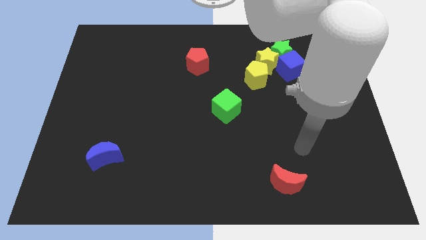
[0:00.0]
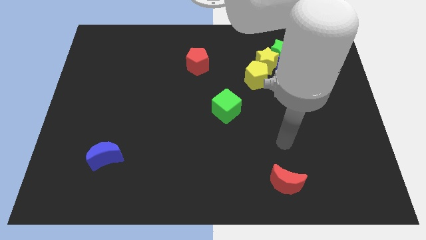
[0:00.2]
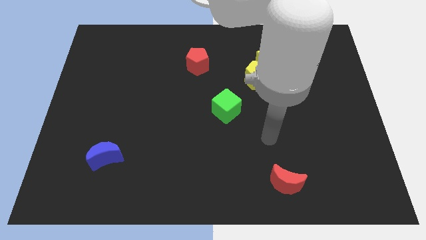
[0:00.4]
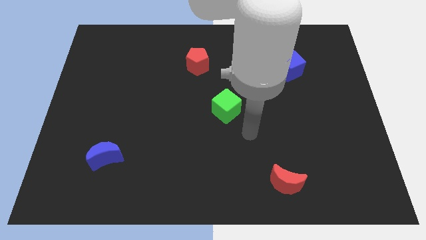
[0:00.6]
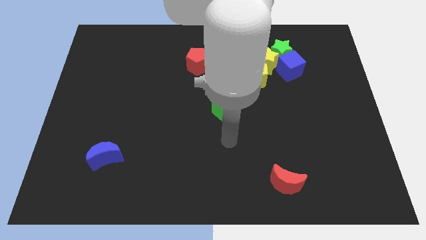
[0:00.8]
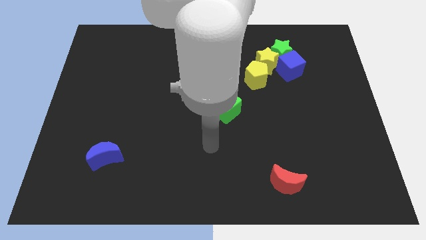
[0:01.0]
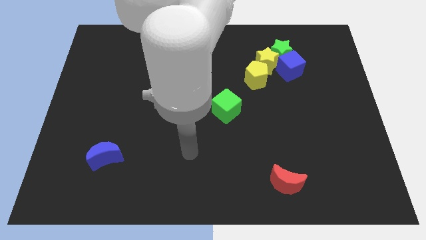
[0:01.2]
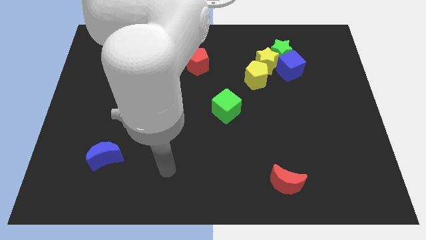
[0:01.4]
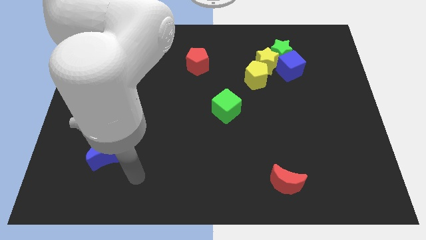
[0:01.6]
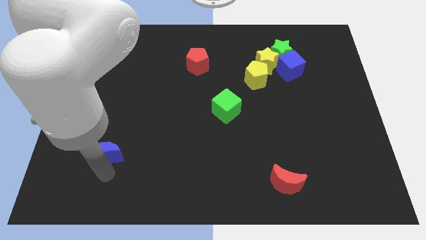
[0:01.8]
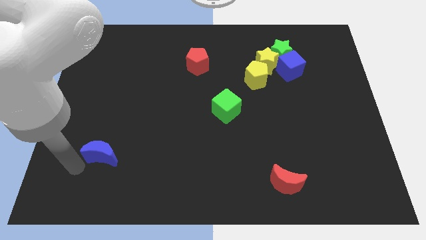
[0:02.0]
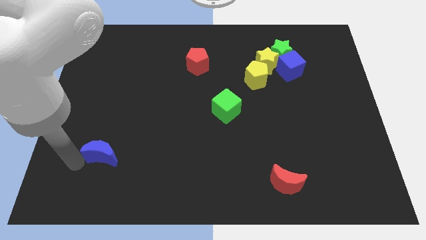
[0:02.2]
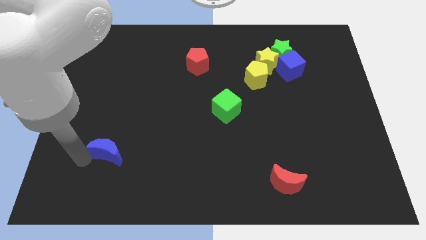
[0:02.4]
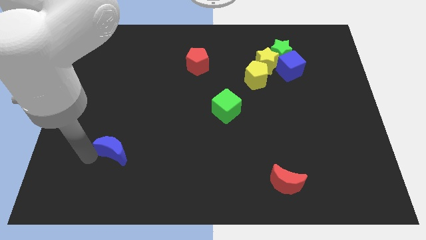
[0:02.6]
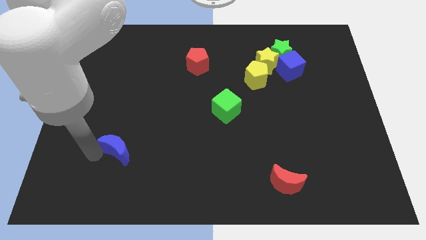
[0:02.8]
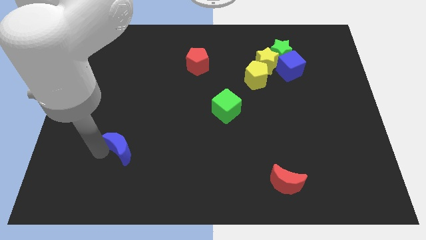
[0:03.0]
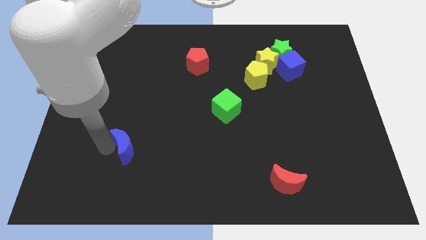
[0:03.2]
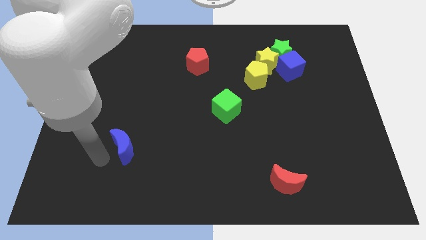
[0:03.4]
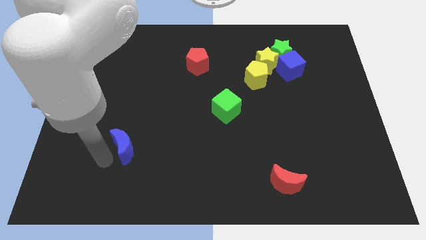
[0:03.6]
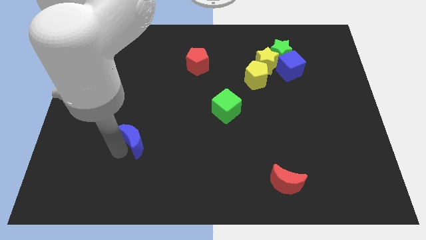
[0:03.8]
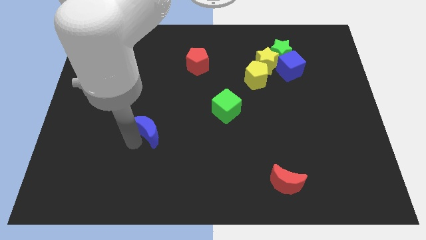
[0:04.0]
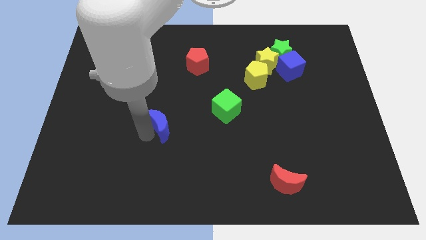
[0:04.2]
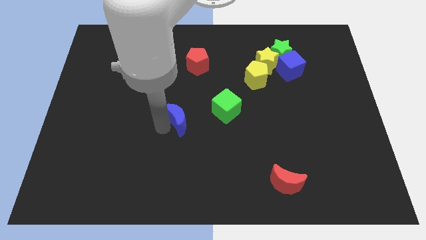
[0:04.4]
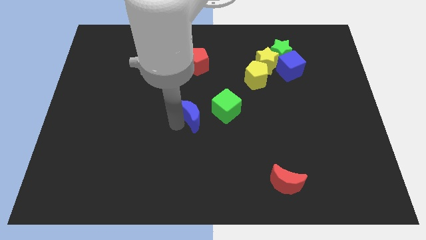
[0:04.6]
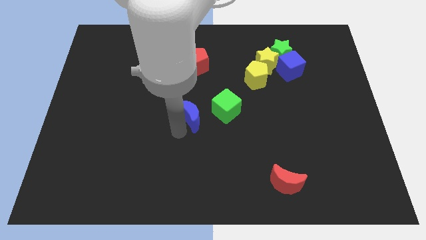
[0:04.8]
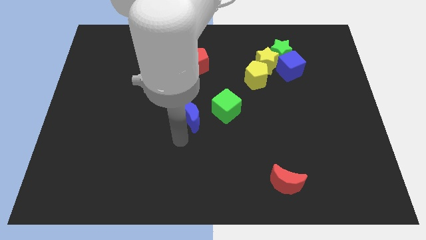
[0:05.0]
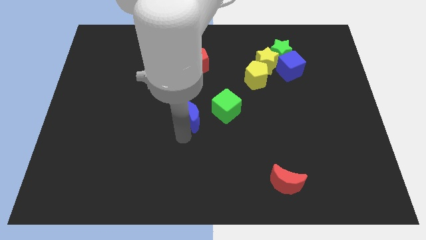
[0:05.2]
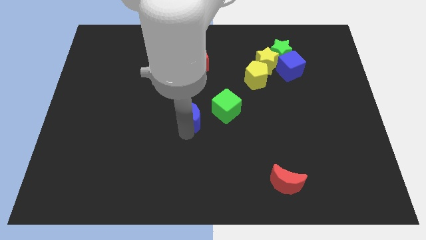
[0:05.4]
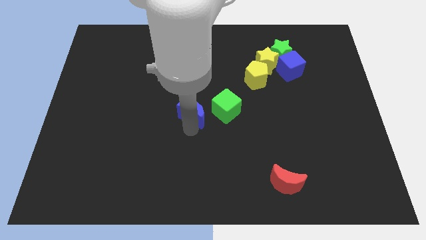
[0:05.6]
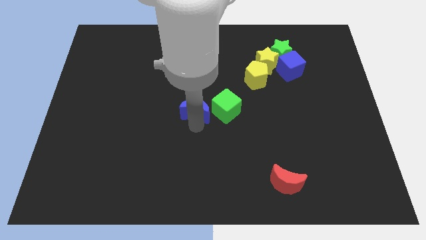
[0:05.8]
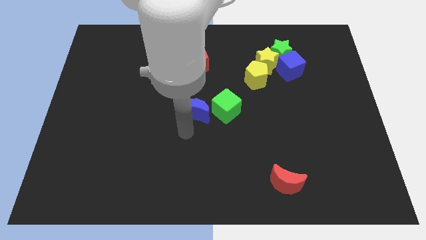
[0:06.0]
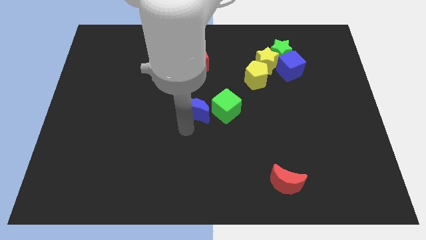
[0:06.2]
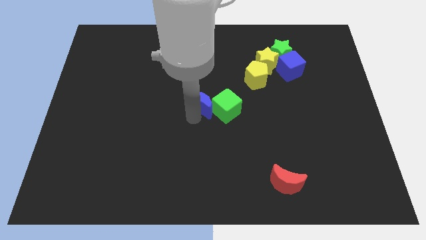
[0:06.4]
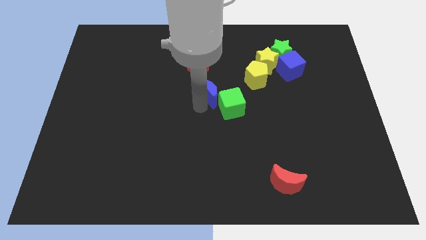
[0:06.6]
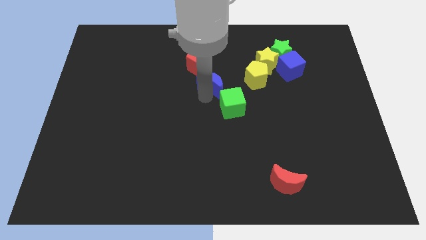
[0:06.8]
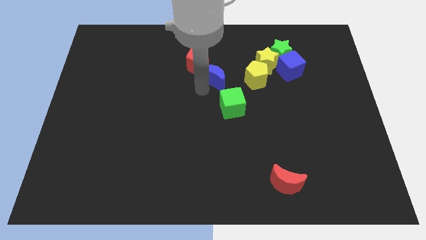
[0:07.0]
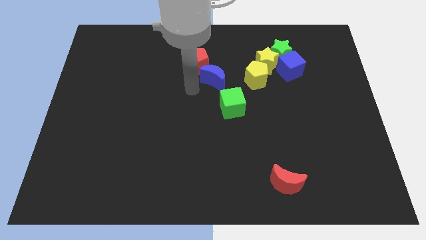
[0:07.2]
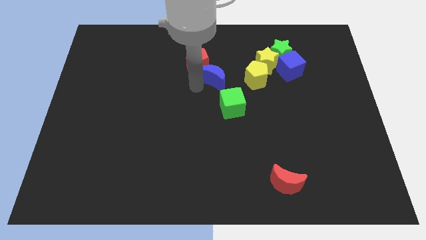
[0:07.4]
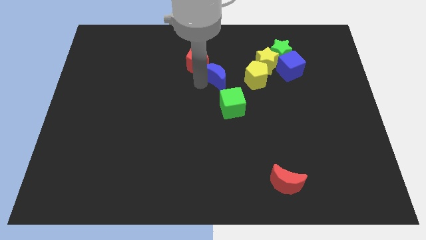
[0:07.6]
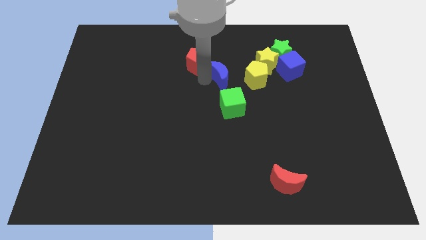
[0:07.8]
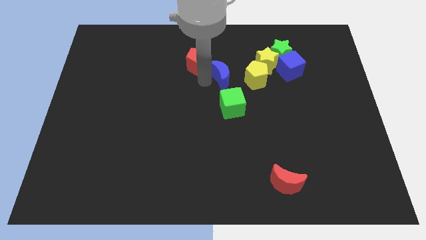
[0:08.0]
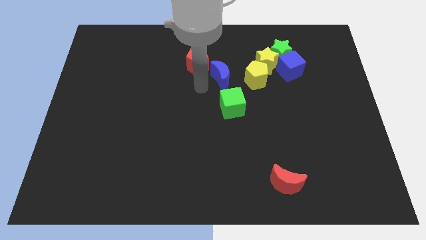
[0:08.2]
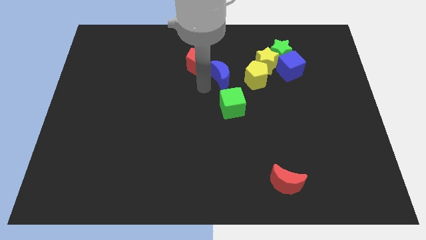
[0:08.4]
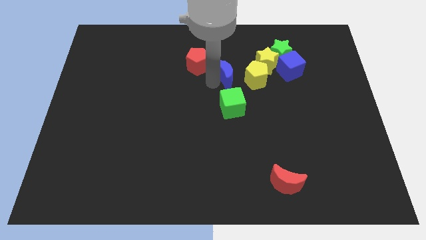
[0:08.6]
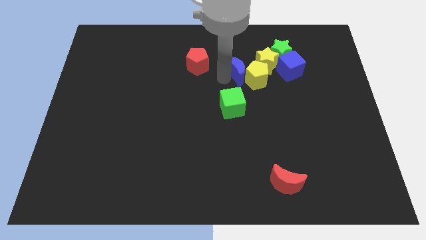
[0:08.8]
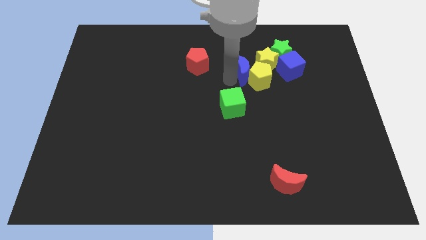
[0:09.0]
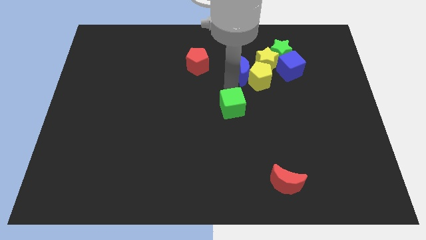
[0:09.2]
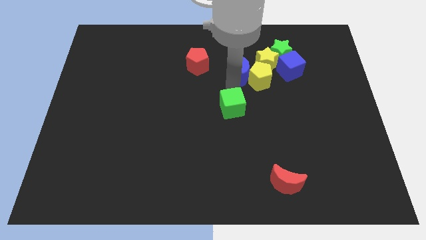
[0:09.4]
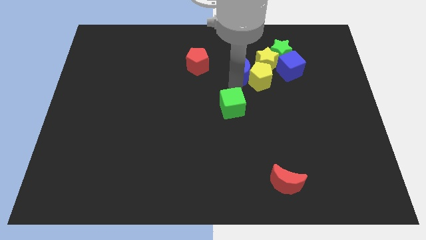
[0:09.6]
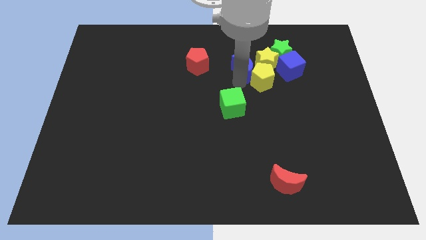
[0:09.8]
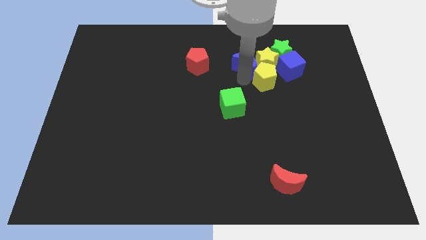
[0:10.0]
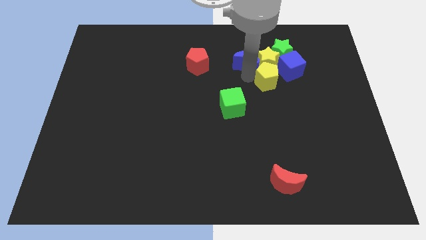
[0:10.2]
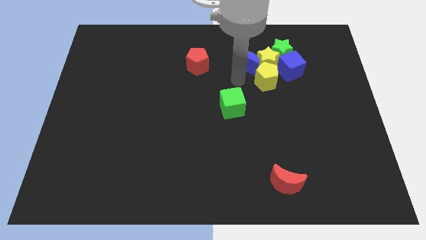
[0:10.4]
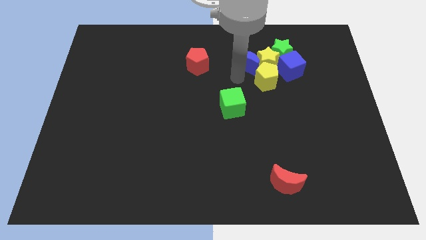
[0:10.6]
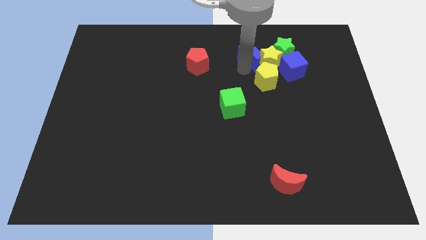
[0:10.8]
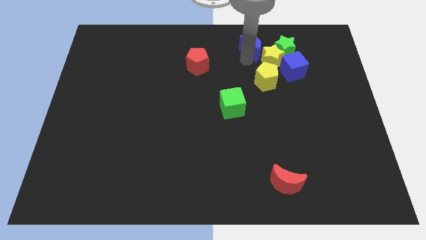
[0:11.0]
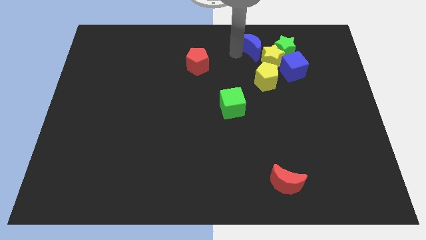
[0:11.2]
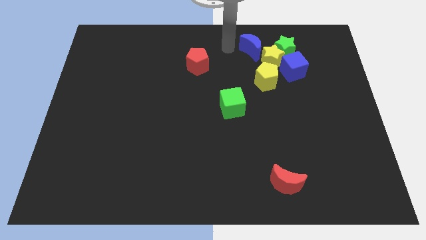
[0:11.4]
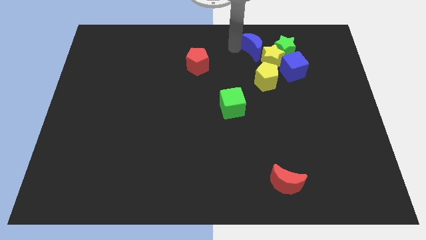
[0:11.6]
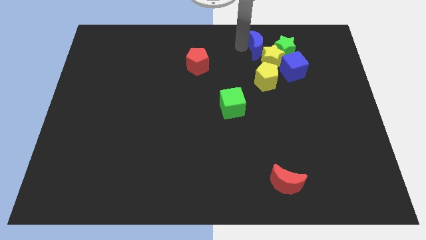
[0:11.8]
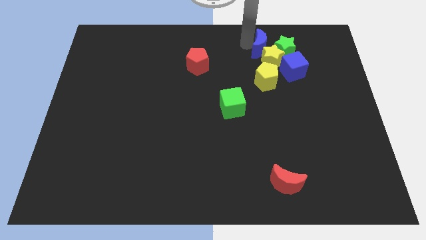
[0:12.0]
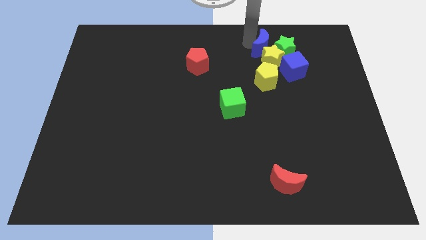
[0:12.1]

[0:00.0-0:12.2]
push the blue moon towards the green star

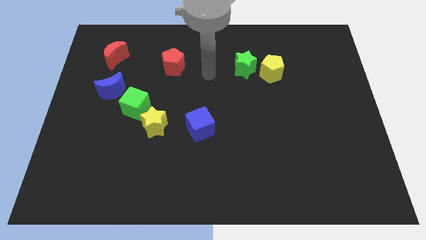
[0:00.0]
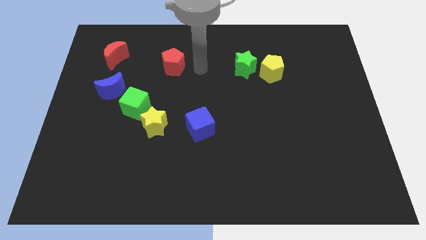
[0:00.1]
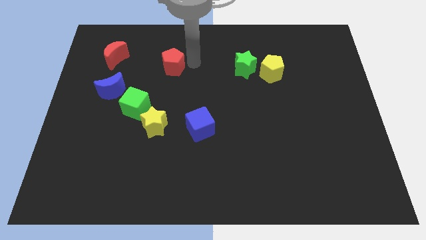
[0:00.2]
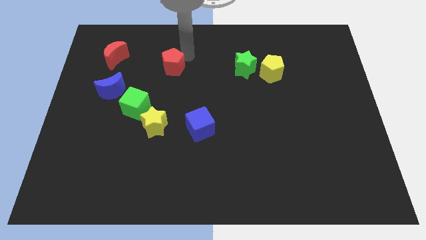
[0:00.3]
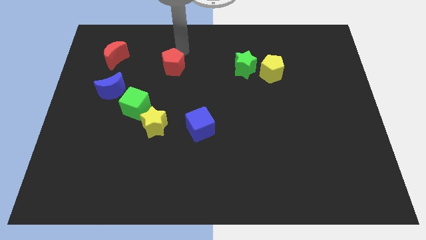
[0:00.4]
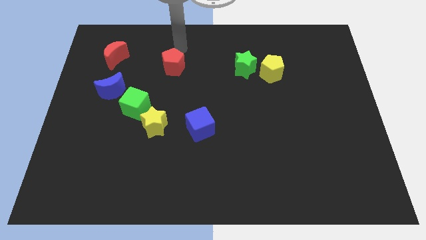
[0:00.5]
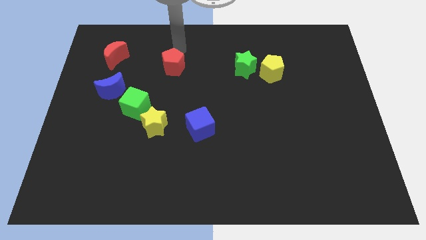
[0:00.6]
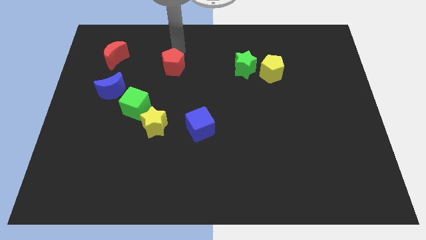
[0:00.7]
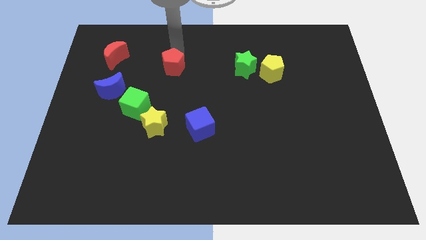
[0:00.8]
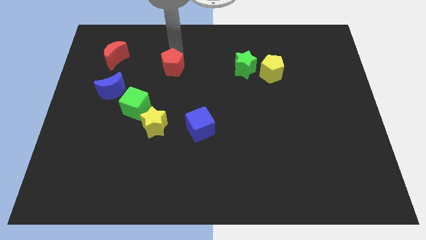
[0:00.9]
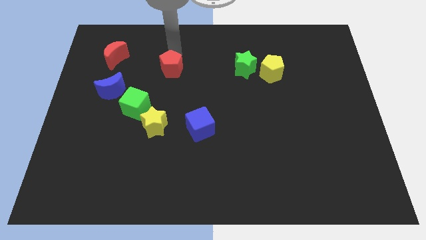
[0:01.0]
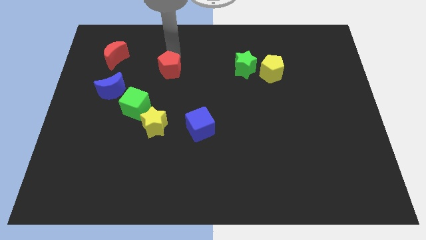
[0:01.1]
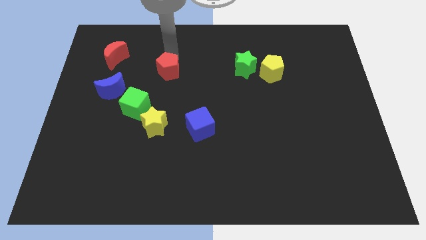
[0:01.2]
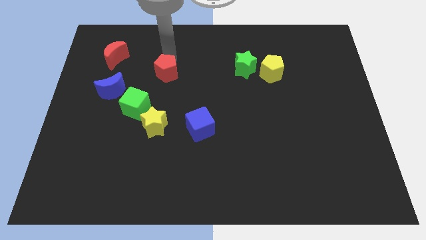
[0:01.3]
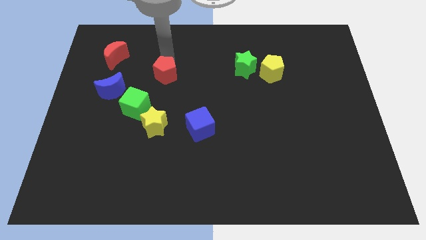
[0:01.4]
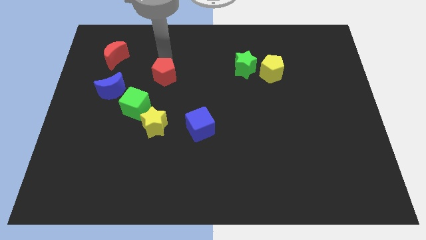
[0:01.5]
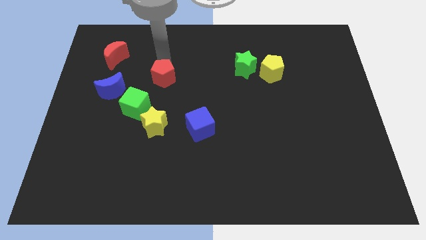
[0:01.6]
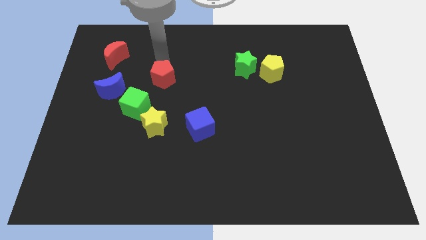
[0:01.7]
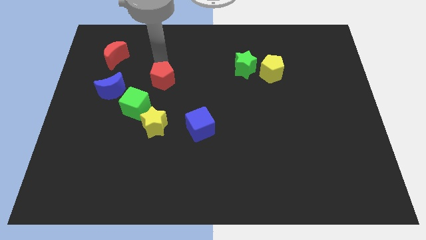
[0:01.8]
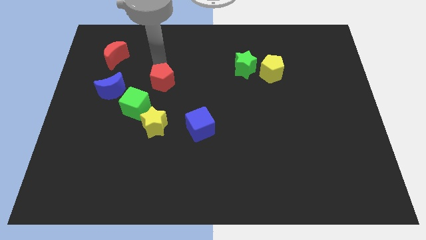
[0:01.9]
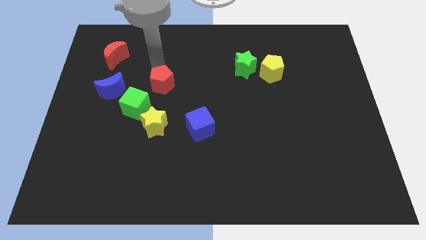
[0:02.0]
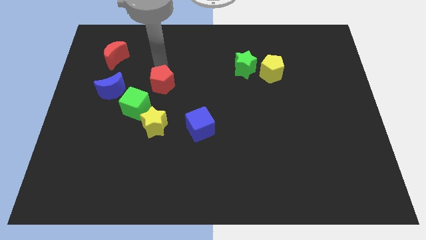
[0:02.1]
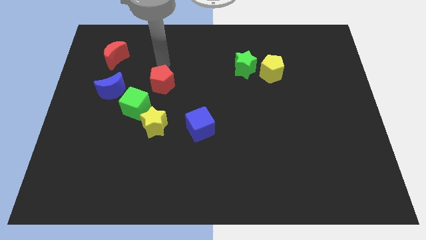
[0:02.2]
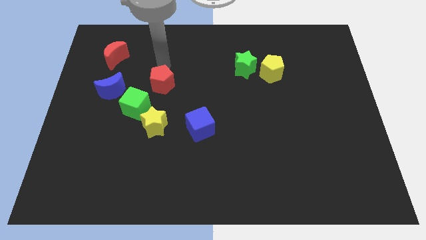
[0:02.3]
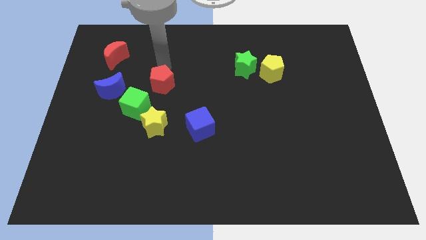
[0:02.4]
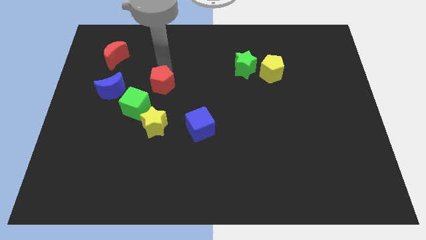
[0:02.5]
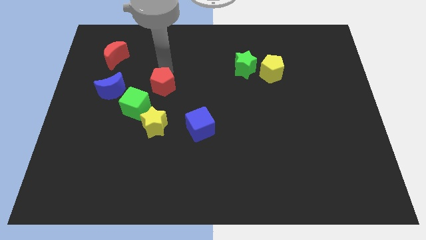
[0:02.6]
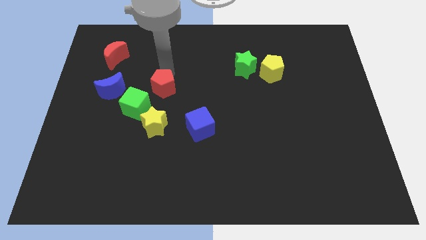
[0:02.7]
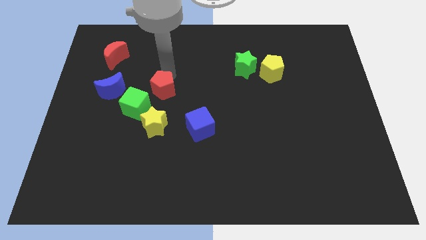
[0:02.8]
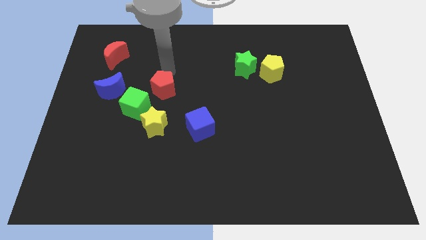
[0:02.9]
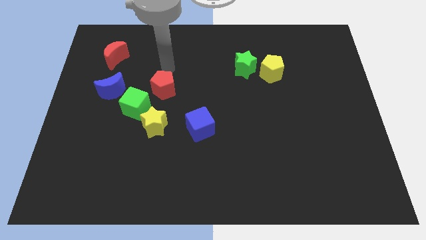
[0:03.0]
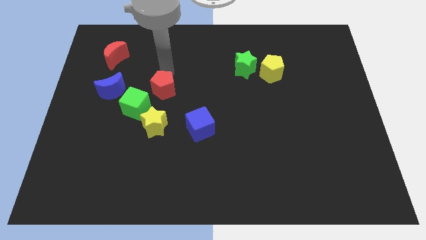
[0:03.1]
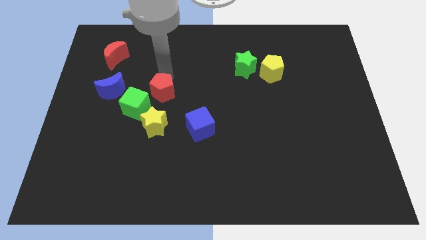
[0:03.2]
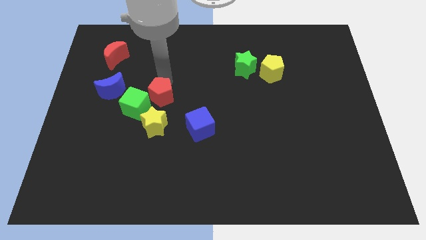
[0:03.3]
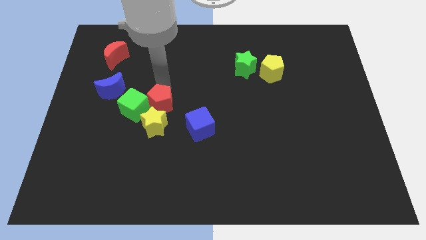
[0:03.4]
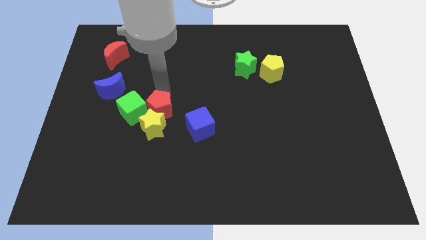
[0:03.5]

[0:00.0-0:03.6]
put the red pentagon close to the yellow star
